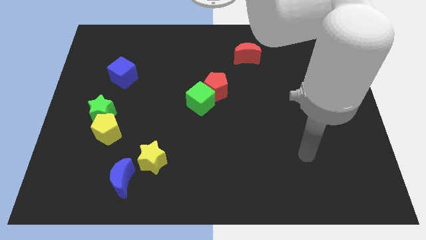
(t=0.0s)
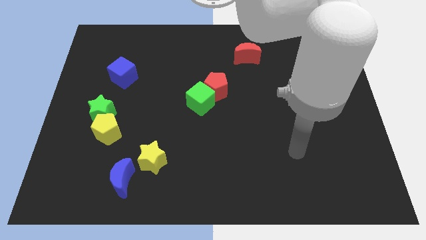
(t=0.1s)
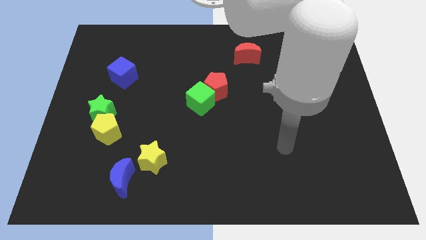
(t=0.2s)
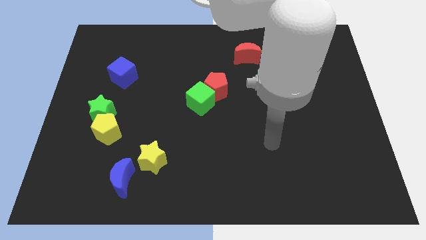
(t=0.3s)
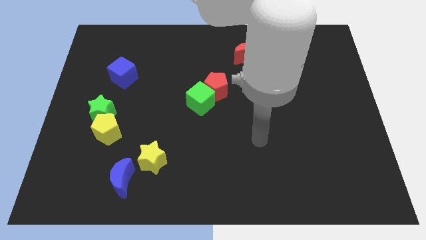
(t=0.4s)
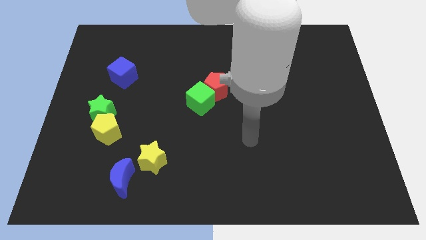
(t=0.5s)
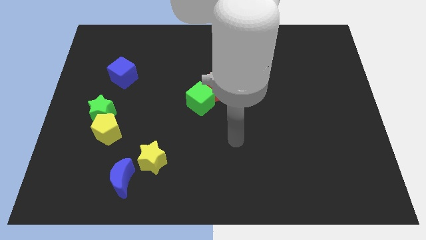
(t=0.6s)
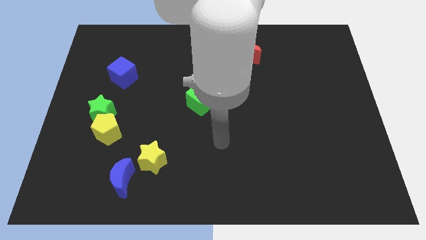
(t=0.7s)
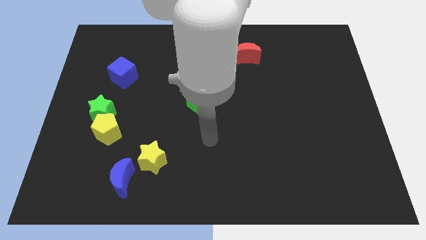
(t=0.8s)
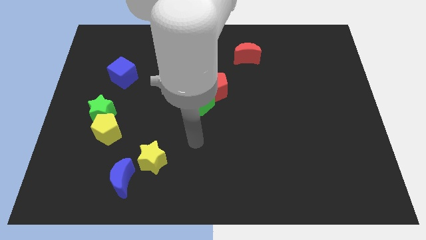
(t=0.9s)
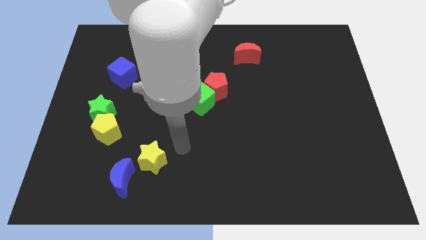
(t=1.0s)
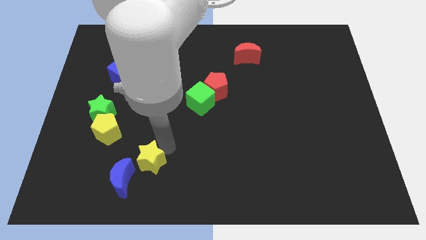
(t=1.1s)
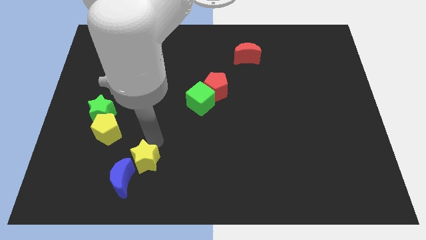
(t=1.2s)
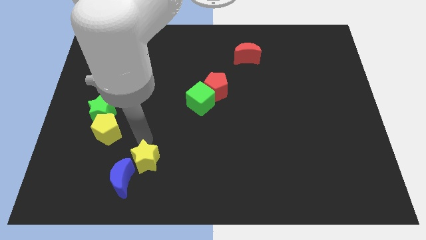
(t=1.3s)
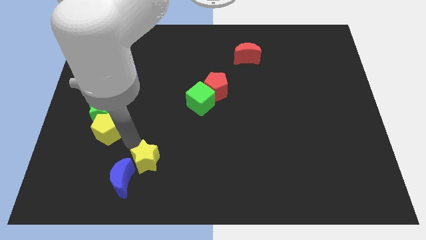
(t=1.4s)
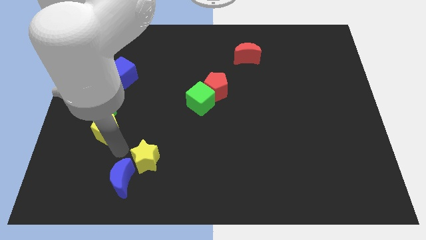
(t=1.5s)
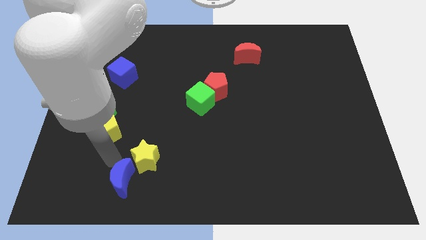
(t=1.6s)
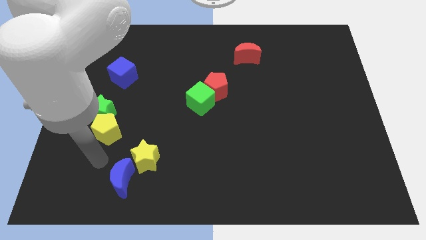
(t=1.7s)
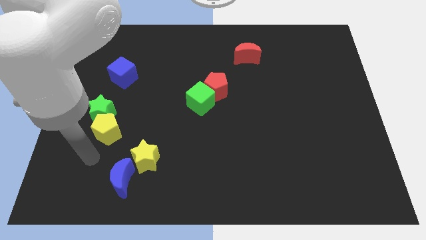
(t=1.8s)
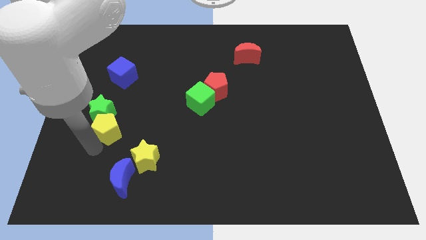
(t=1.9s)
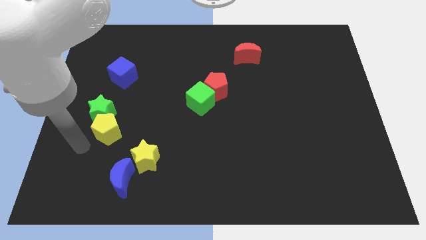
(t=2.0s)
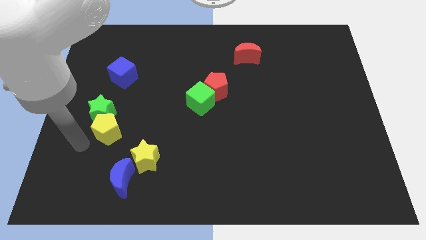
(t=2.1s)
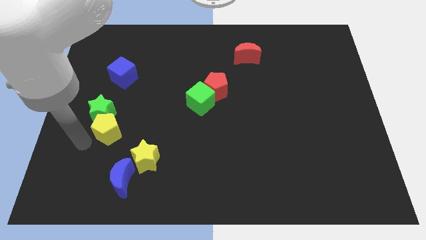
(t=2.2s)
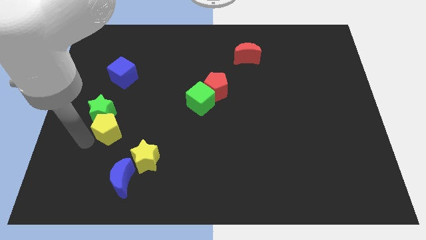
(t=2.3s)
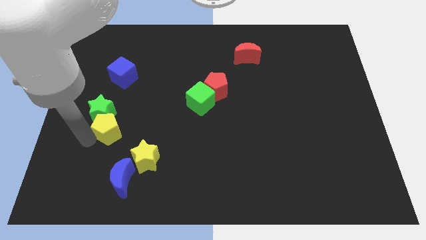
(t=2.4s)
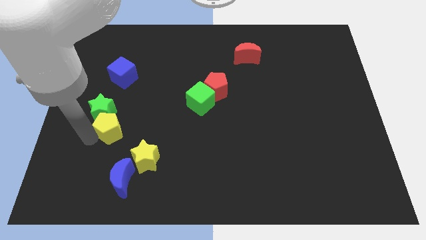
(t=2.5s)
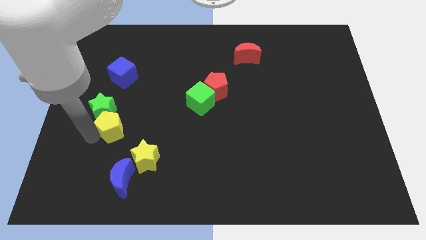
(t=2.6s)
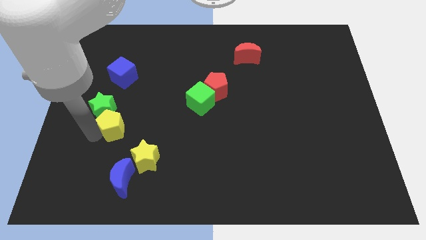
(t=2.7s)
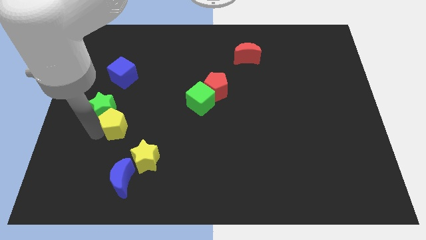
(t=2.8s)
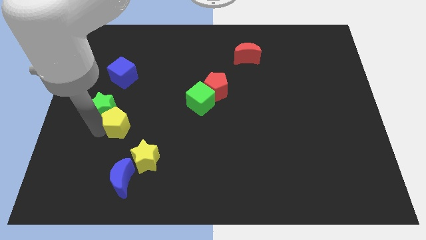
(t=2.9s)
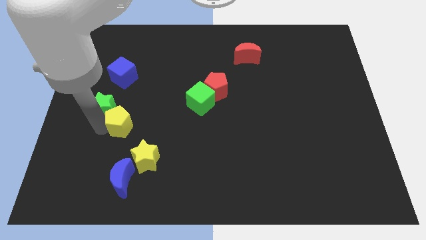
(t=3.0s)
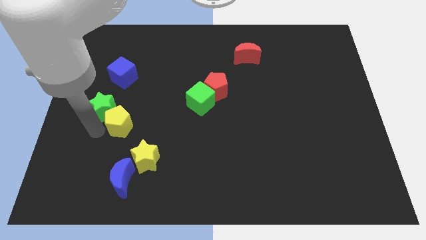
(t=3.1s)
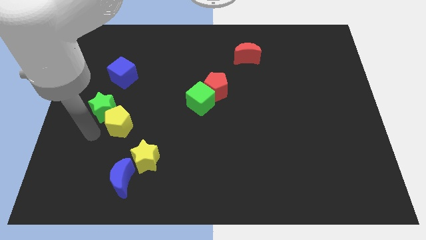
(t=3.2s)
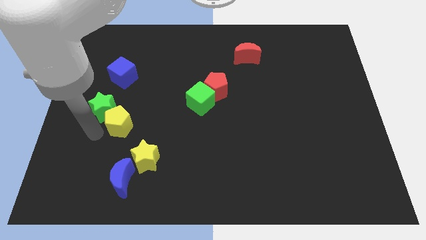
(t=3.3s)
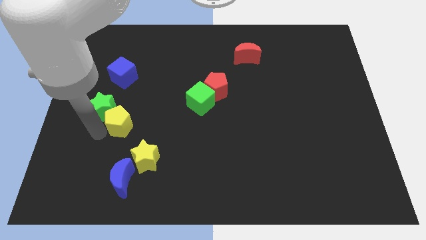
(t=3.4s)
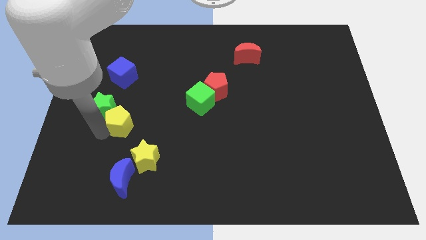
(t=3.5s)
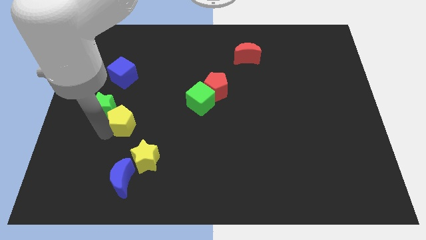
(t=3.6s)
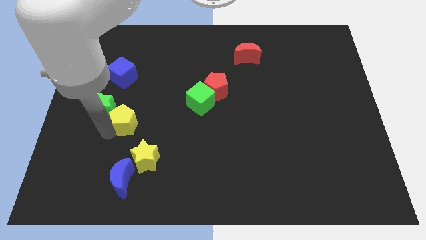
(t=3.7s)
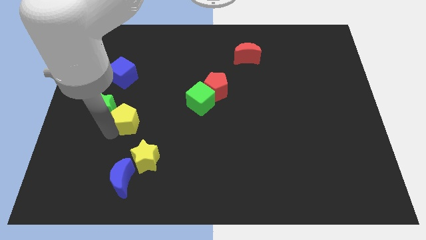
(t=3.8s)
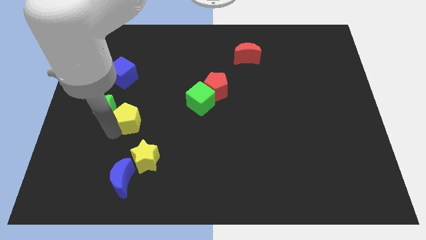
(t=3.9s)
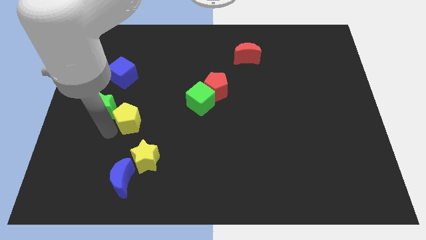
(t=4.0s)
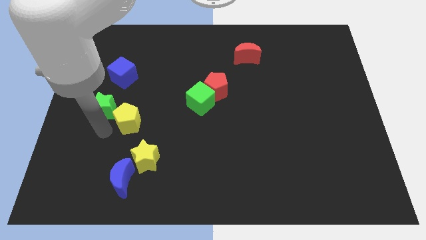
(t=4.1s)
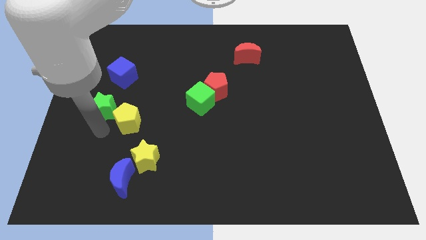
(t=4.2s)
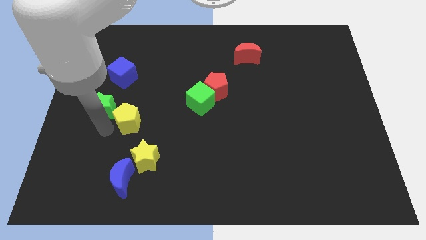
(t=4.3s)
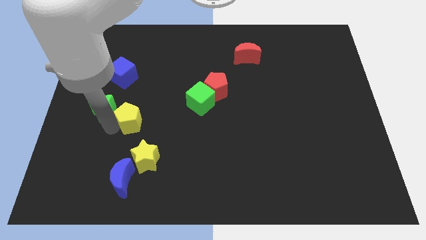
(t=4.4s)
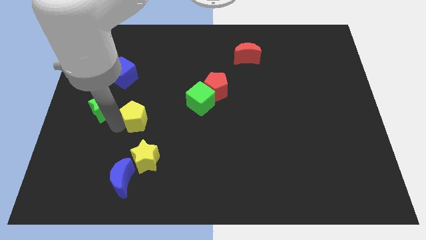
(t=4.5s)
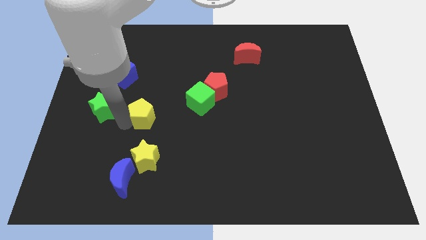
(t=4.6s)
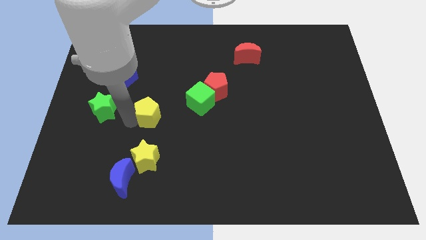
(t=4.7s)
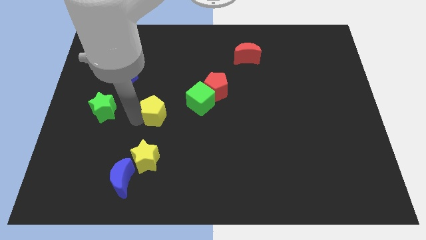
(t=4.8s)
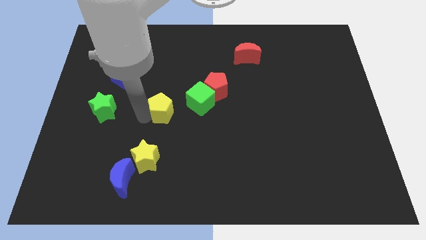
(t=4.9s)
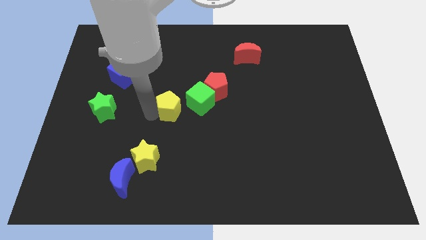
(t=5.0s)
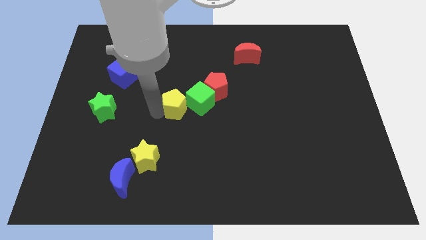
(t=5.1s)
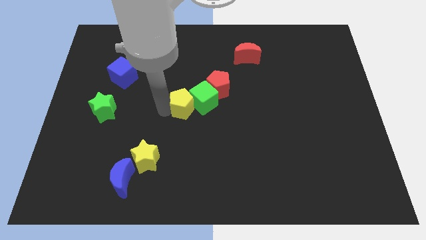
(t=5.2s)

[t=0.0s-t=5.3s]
push the yellow pentagon close to the green cube

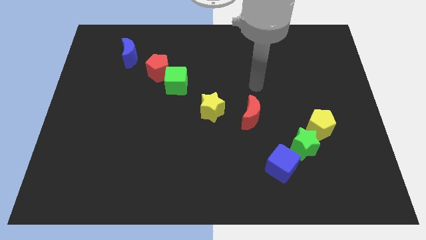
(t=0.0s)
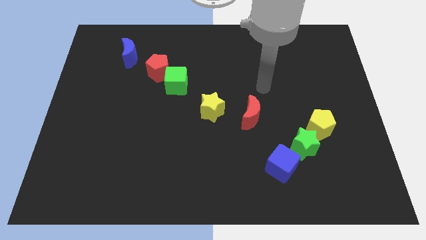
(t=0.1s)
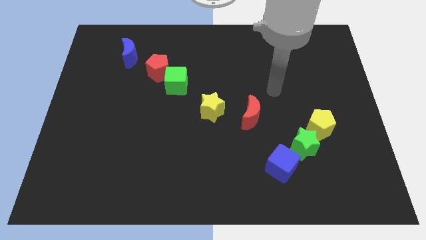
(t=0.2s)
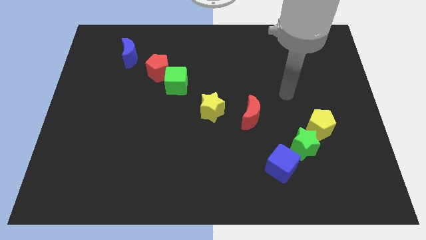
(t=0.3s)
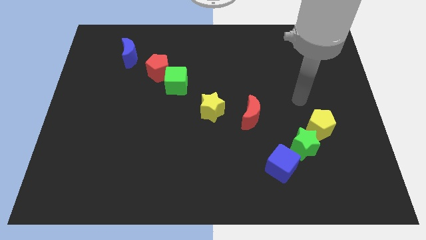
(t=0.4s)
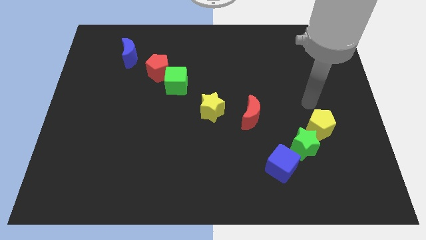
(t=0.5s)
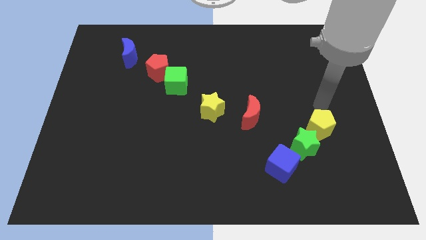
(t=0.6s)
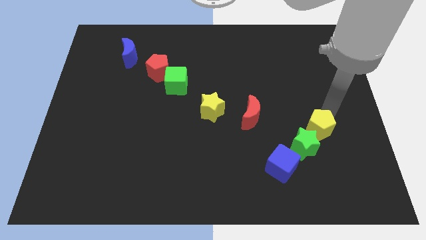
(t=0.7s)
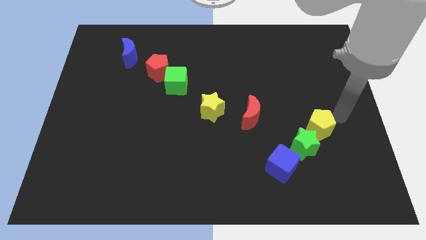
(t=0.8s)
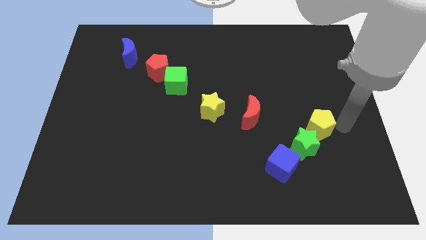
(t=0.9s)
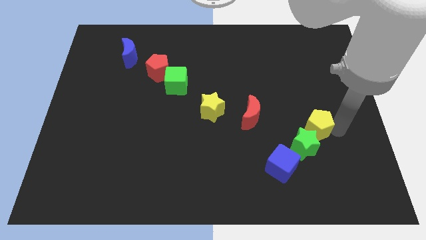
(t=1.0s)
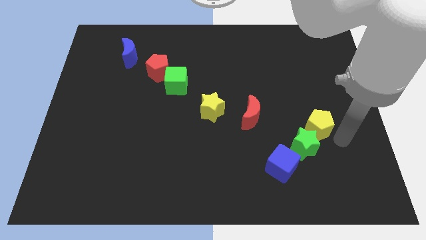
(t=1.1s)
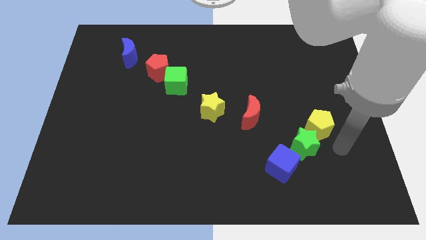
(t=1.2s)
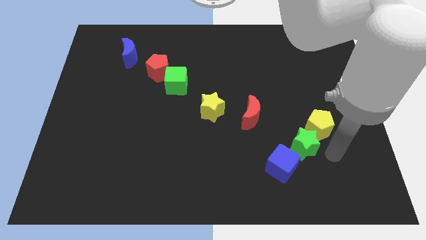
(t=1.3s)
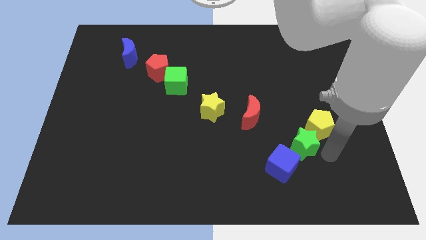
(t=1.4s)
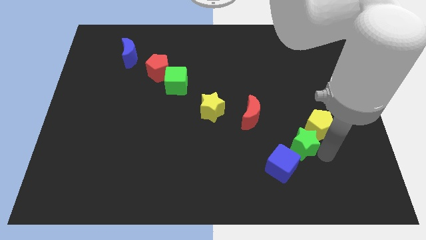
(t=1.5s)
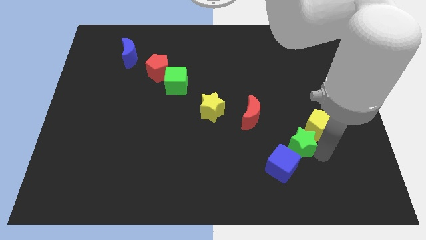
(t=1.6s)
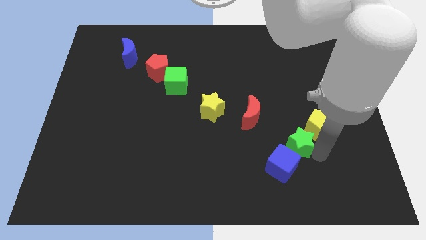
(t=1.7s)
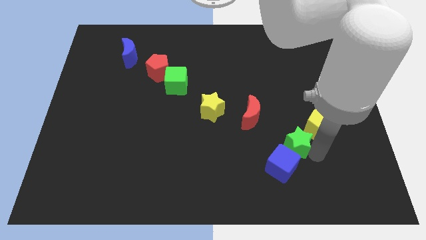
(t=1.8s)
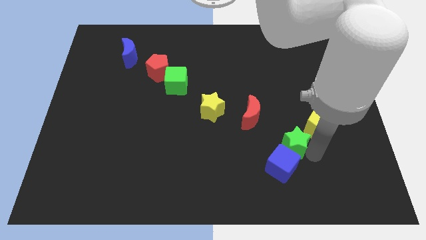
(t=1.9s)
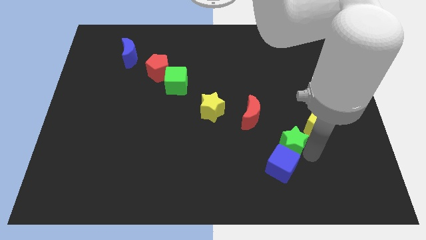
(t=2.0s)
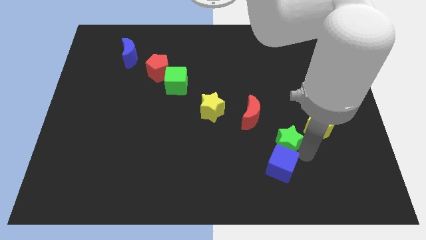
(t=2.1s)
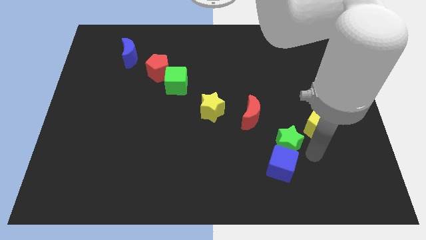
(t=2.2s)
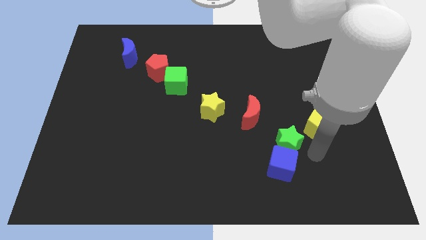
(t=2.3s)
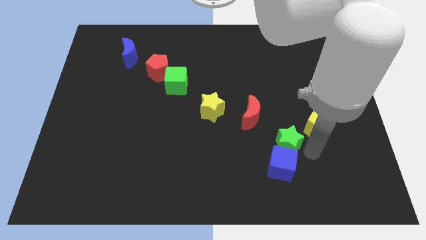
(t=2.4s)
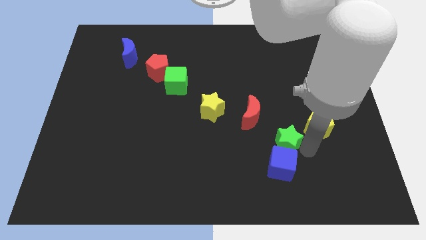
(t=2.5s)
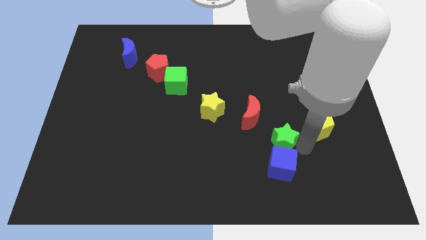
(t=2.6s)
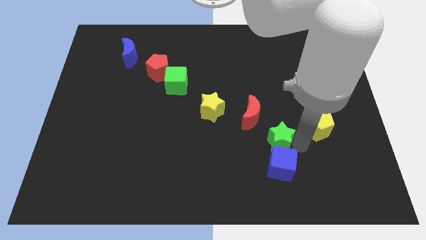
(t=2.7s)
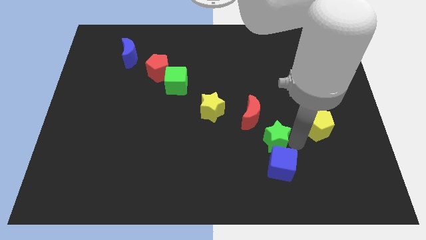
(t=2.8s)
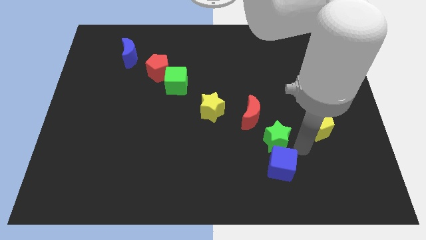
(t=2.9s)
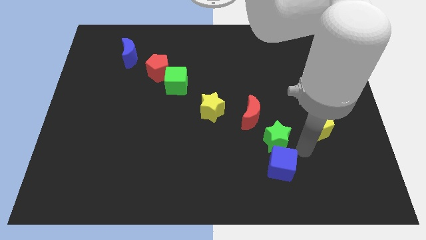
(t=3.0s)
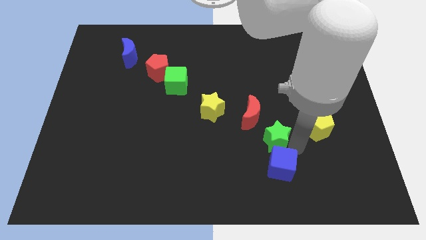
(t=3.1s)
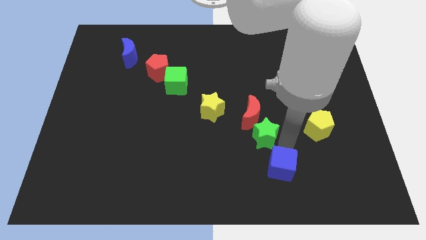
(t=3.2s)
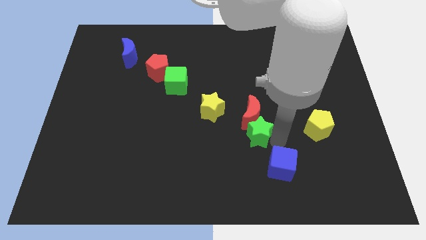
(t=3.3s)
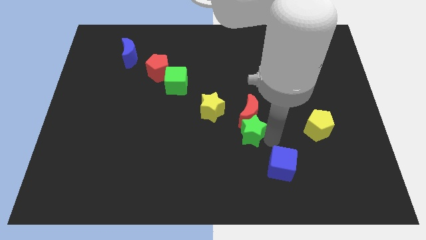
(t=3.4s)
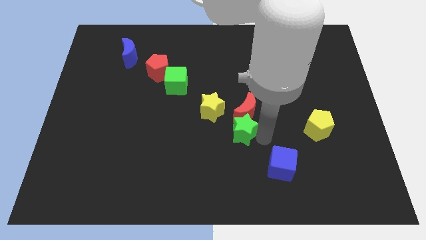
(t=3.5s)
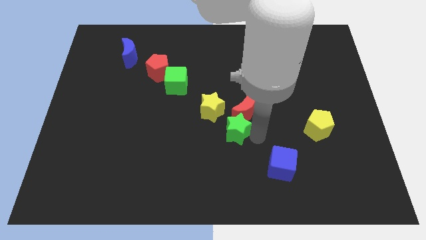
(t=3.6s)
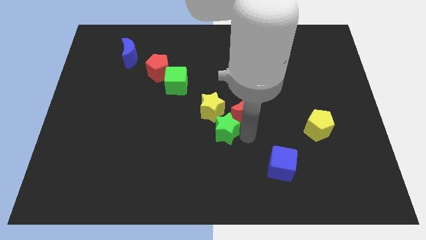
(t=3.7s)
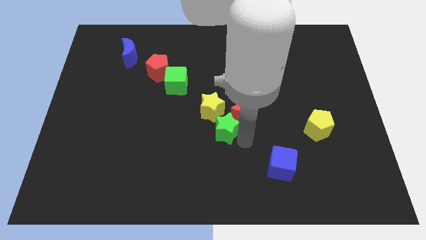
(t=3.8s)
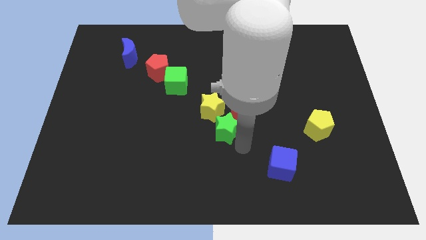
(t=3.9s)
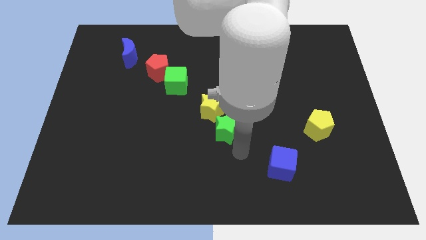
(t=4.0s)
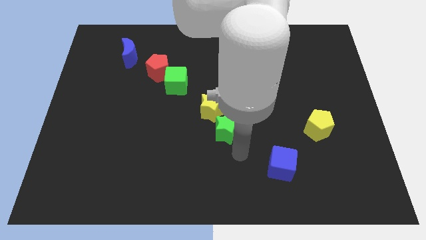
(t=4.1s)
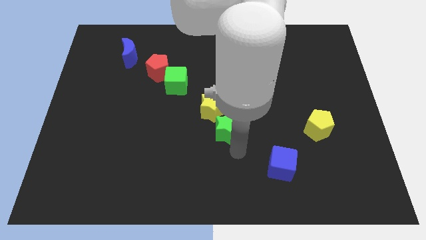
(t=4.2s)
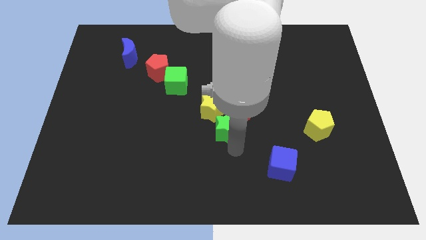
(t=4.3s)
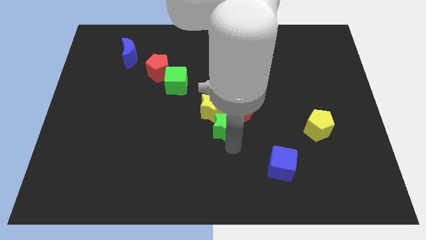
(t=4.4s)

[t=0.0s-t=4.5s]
slide the green star to the yellow star
